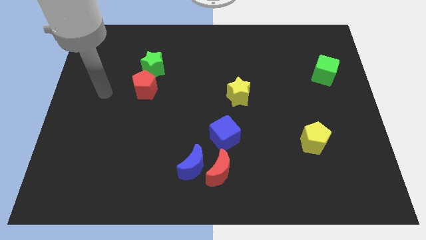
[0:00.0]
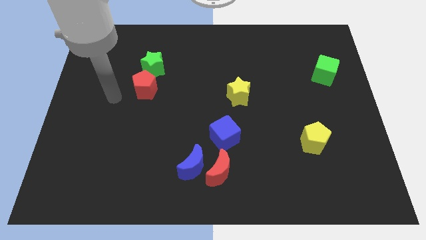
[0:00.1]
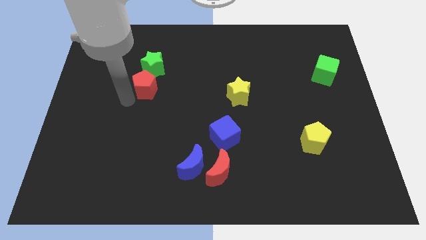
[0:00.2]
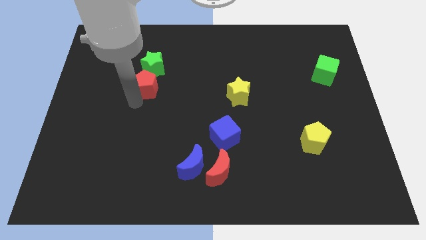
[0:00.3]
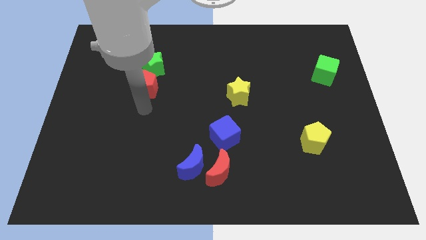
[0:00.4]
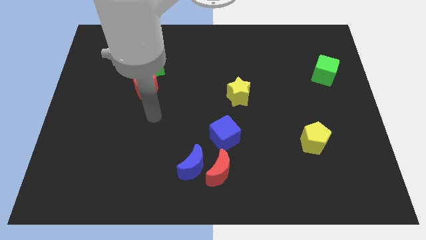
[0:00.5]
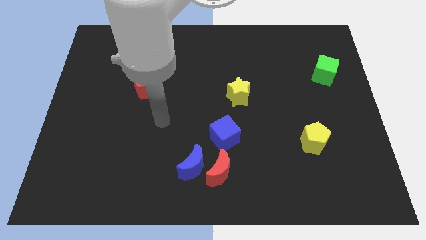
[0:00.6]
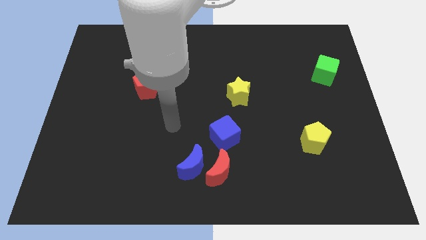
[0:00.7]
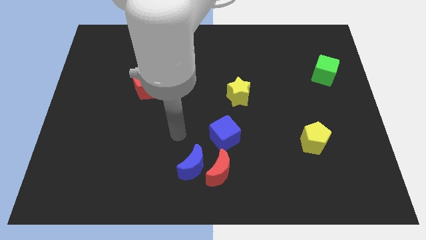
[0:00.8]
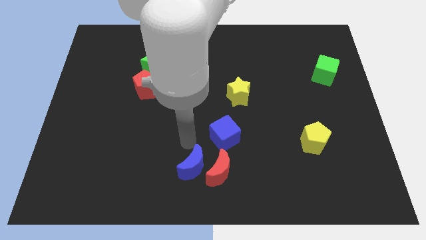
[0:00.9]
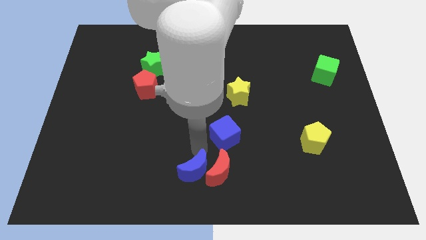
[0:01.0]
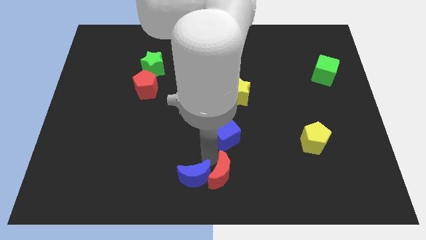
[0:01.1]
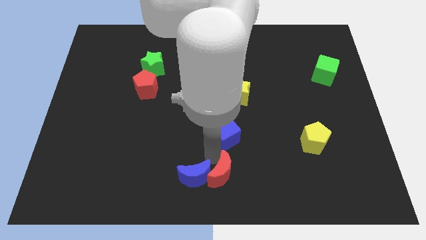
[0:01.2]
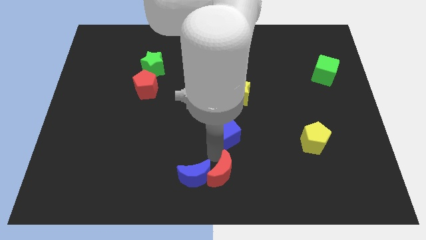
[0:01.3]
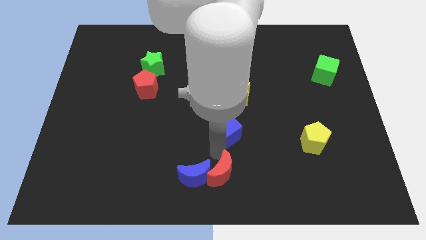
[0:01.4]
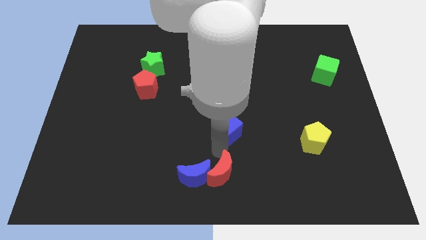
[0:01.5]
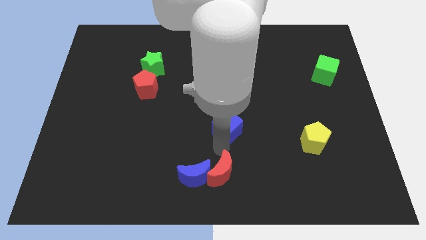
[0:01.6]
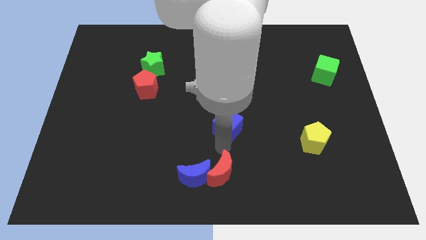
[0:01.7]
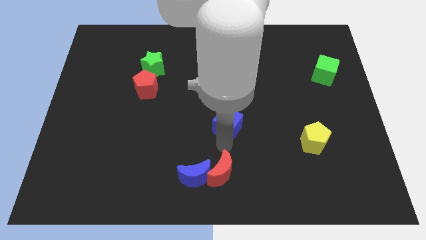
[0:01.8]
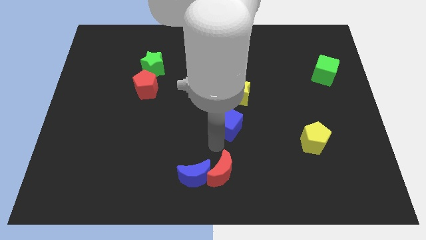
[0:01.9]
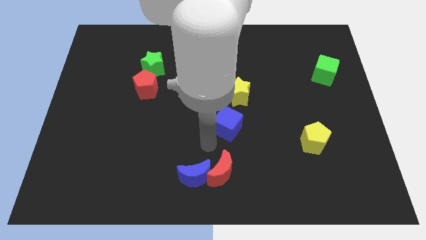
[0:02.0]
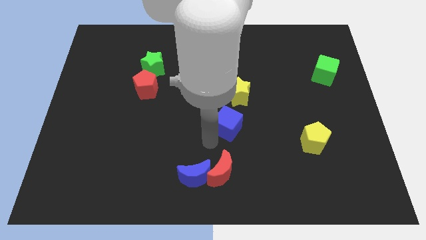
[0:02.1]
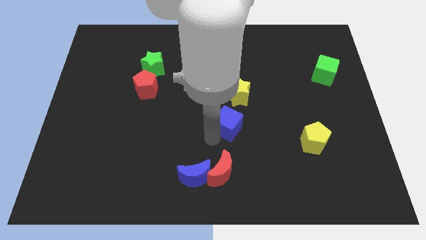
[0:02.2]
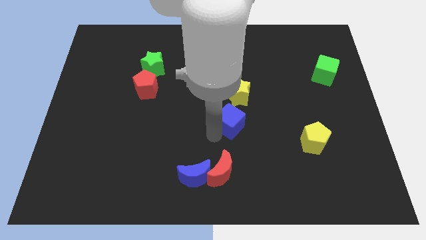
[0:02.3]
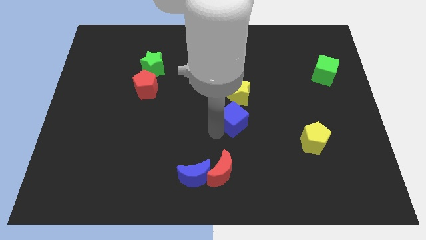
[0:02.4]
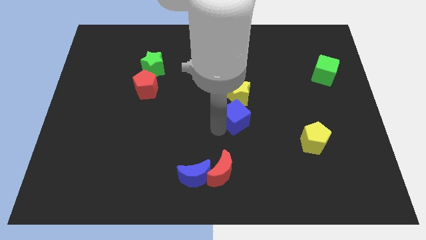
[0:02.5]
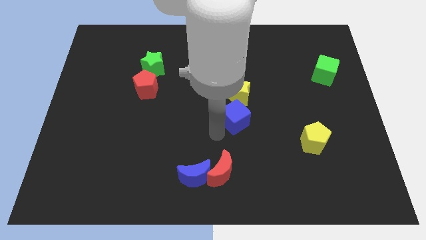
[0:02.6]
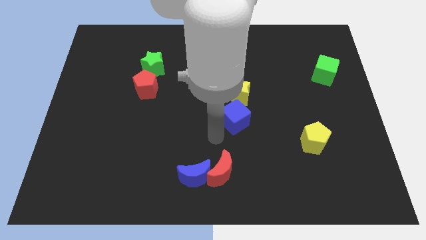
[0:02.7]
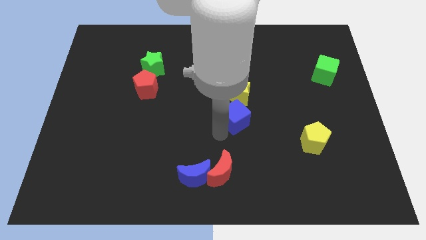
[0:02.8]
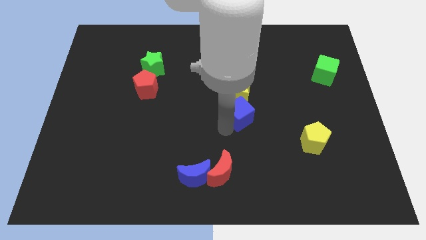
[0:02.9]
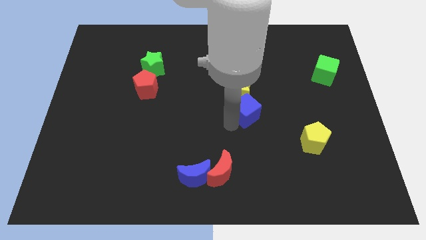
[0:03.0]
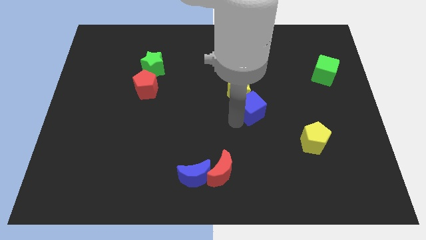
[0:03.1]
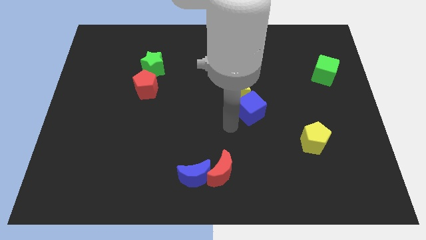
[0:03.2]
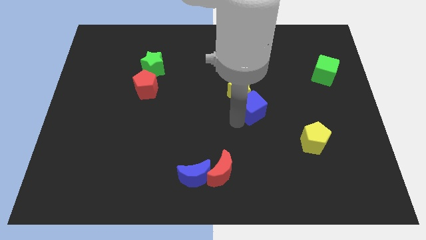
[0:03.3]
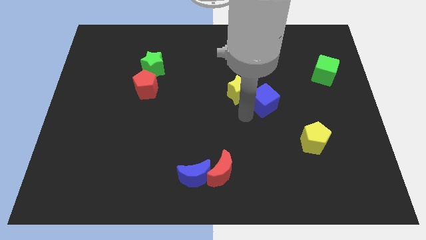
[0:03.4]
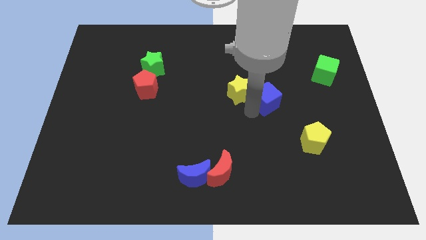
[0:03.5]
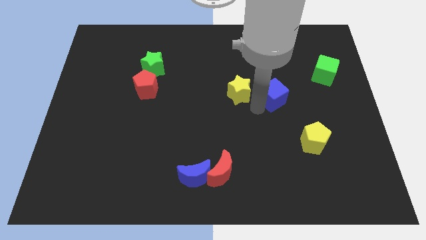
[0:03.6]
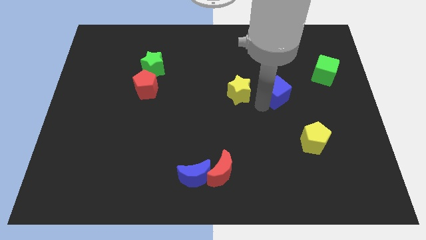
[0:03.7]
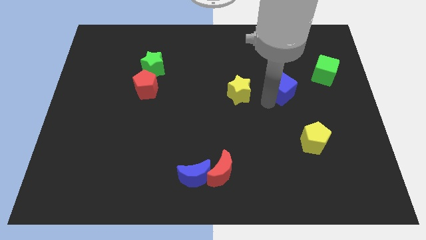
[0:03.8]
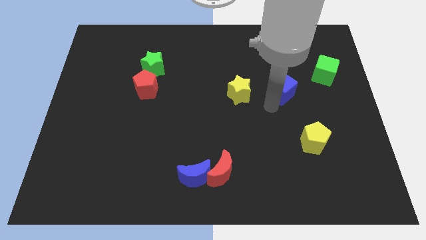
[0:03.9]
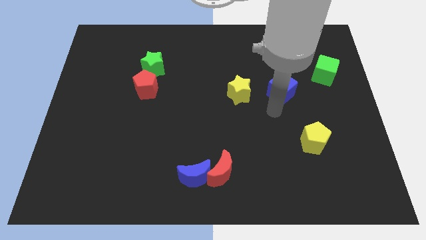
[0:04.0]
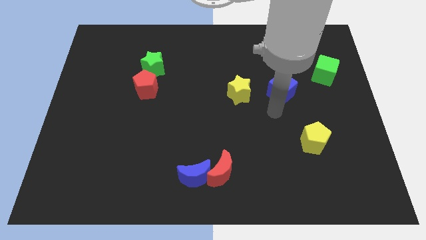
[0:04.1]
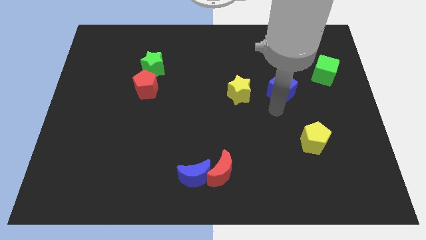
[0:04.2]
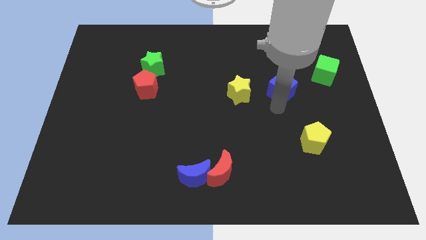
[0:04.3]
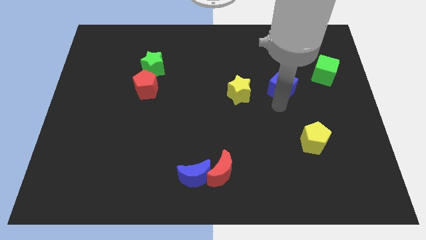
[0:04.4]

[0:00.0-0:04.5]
push the blue cube diagonally up and to the right

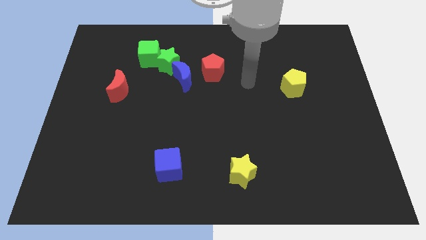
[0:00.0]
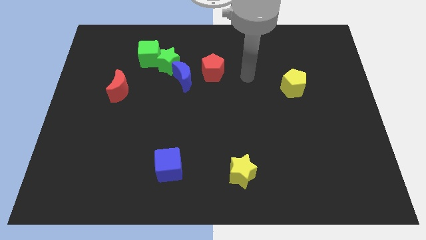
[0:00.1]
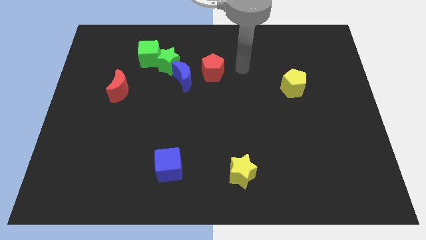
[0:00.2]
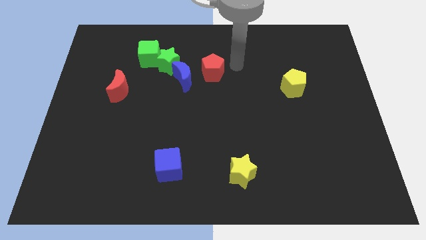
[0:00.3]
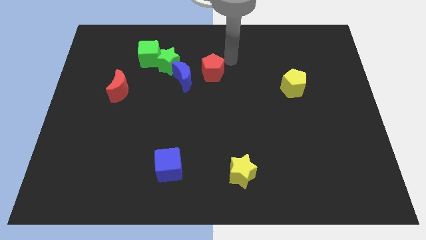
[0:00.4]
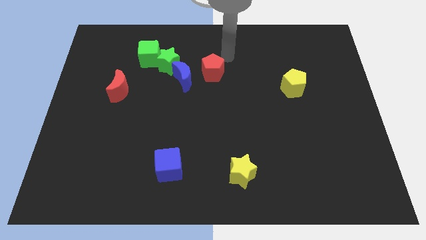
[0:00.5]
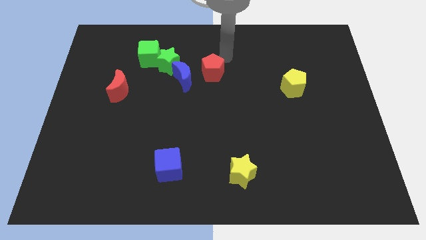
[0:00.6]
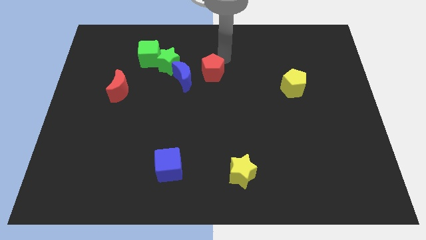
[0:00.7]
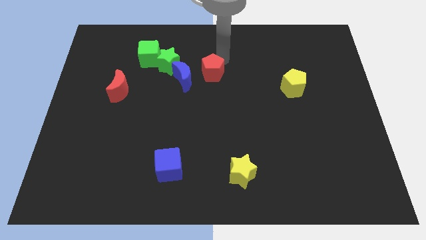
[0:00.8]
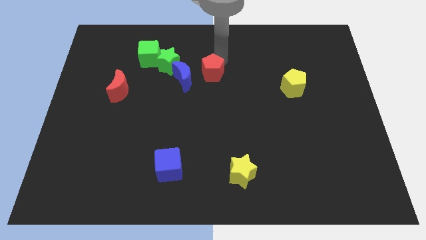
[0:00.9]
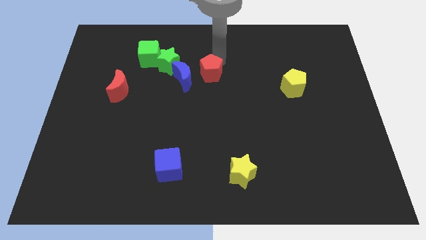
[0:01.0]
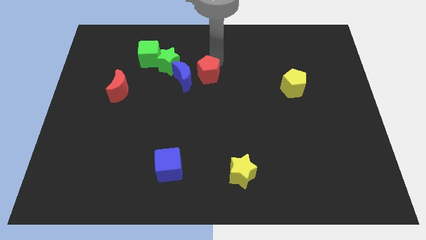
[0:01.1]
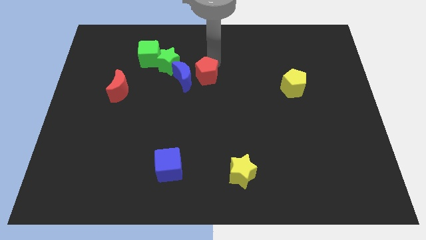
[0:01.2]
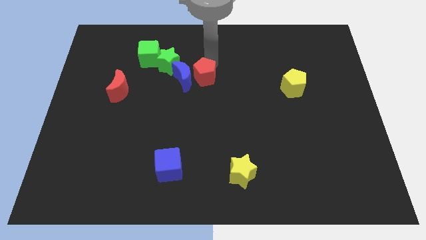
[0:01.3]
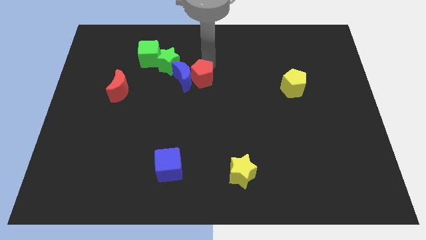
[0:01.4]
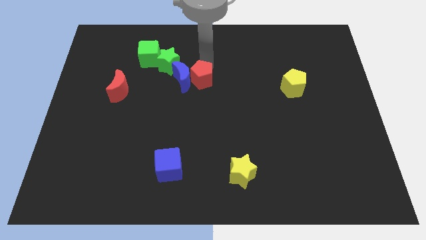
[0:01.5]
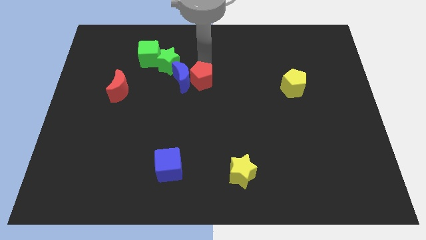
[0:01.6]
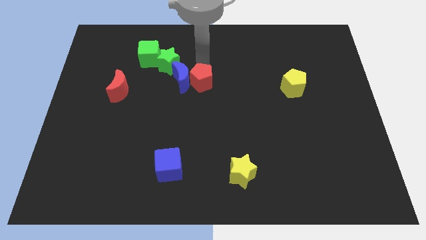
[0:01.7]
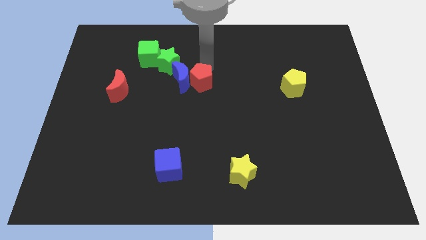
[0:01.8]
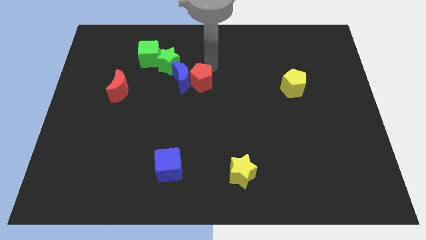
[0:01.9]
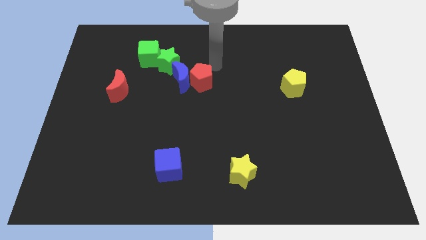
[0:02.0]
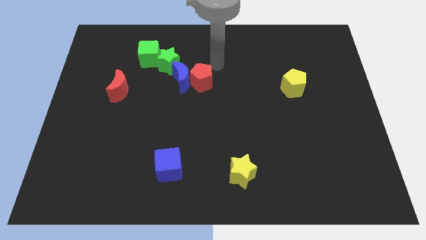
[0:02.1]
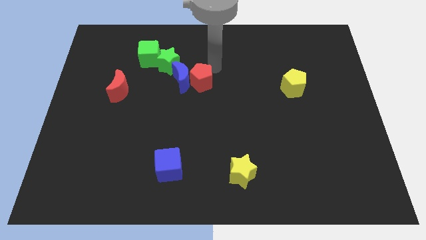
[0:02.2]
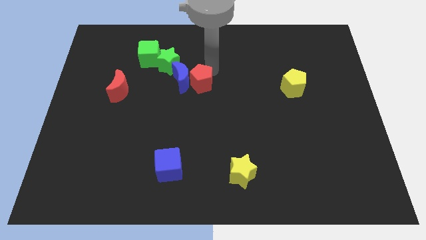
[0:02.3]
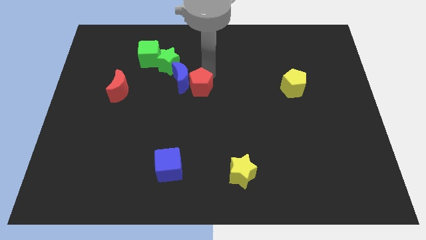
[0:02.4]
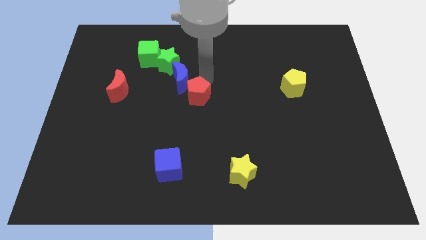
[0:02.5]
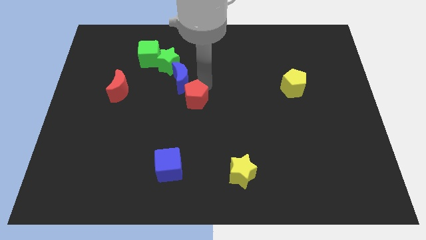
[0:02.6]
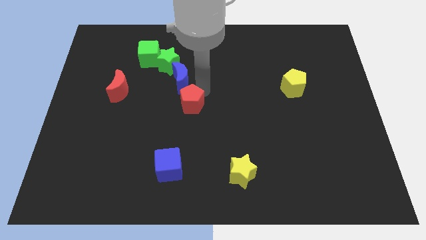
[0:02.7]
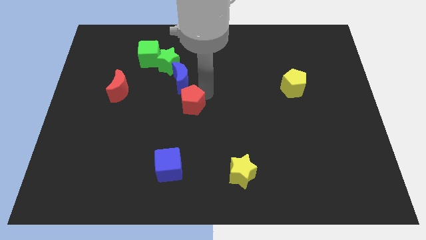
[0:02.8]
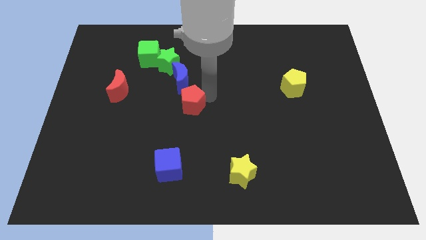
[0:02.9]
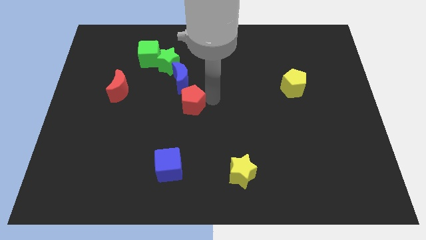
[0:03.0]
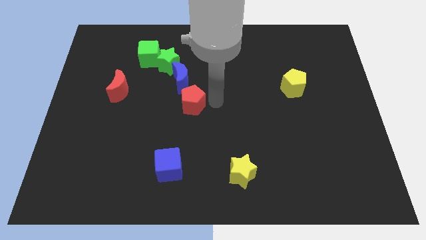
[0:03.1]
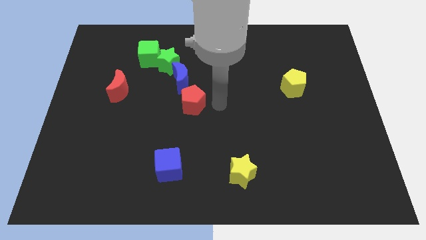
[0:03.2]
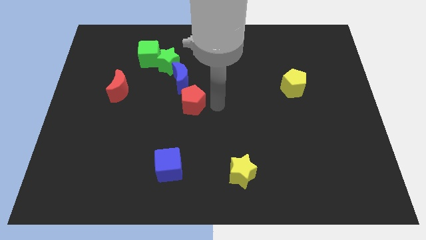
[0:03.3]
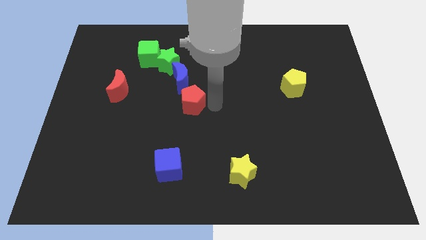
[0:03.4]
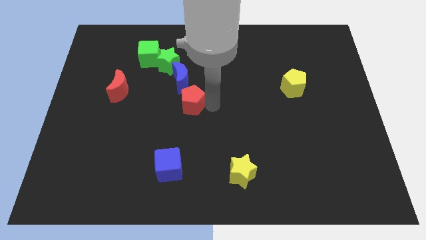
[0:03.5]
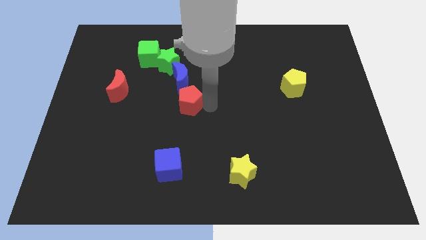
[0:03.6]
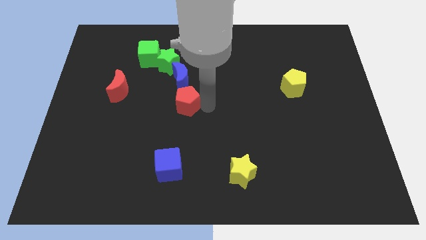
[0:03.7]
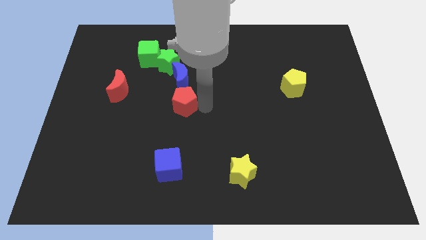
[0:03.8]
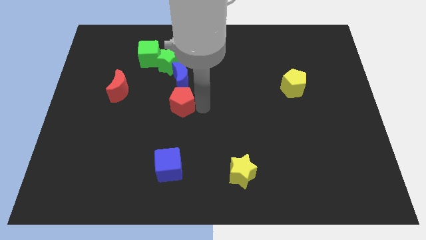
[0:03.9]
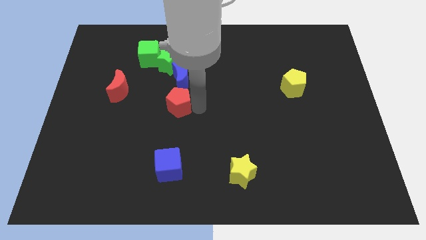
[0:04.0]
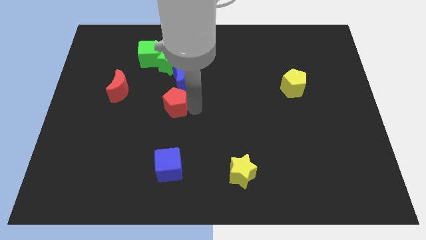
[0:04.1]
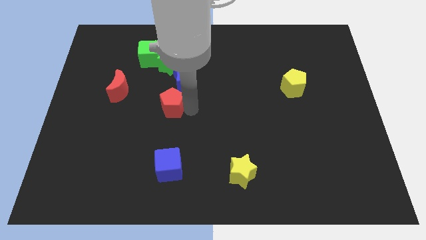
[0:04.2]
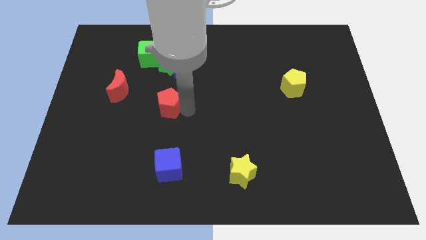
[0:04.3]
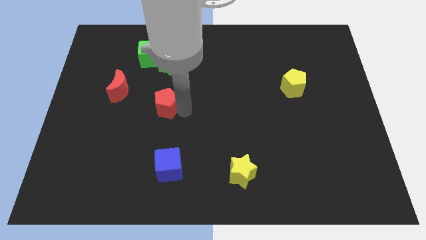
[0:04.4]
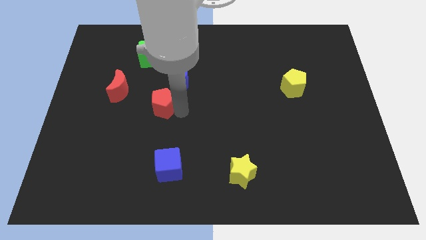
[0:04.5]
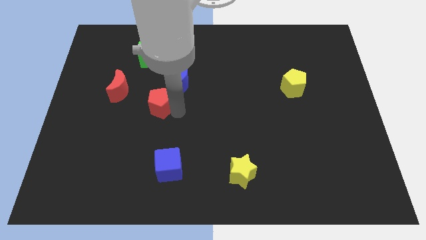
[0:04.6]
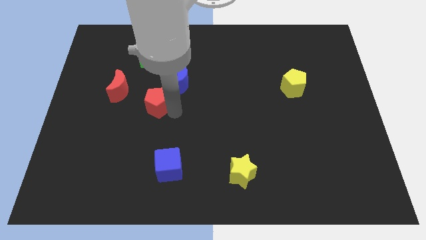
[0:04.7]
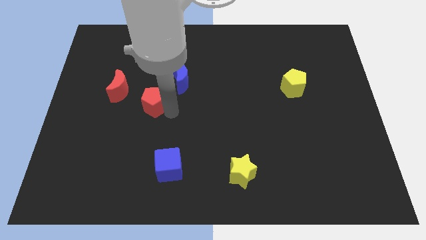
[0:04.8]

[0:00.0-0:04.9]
move the red pentagon somewhat left
